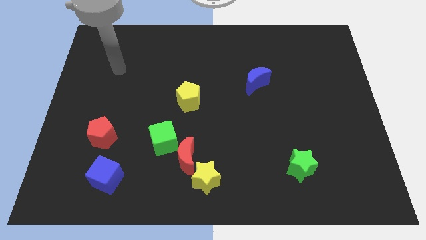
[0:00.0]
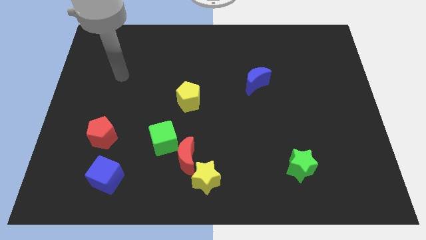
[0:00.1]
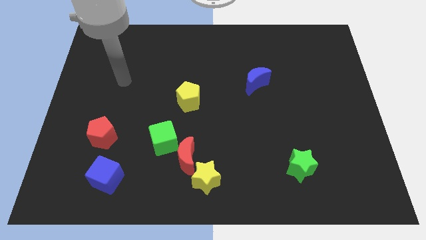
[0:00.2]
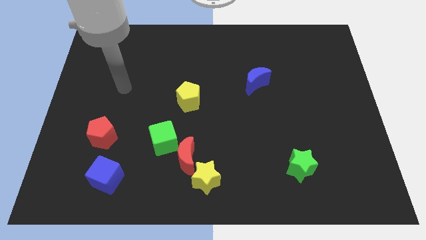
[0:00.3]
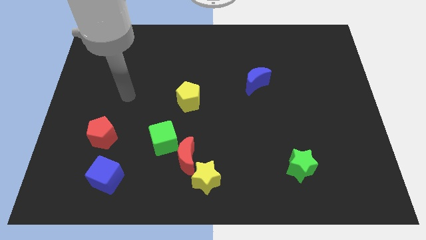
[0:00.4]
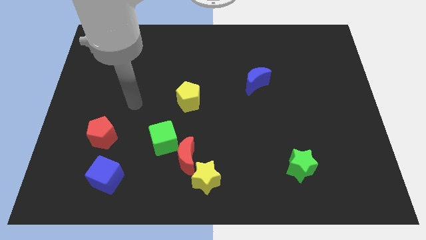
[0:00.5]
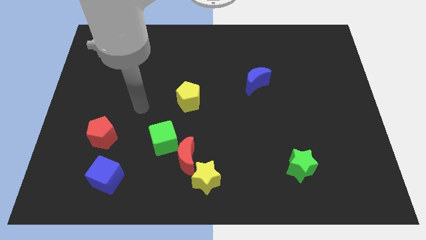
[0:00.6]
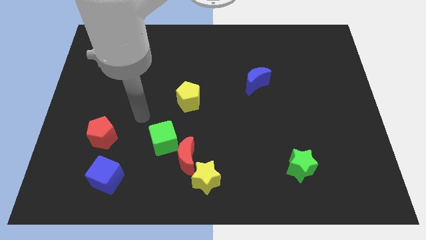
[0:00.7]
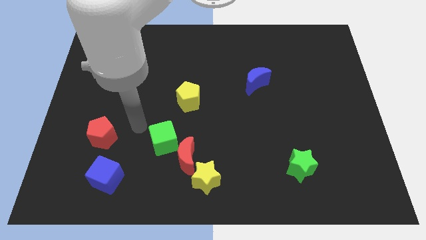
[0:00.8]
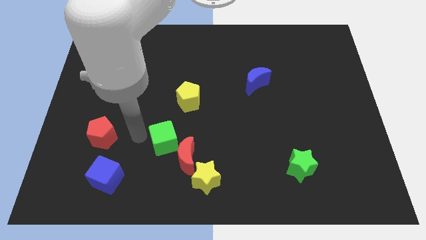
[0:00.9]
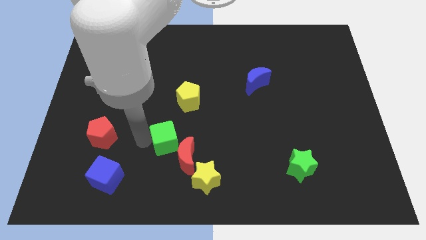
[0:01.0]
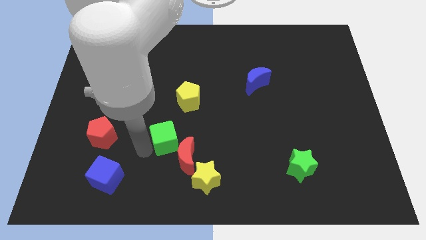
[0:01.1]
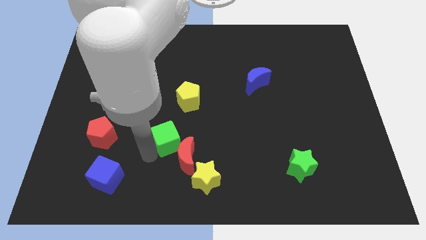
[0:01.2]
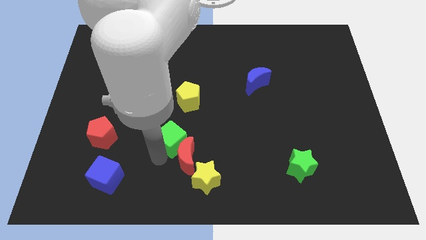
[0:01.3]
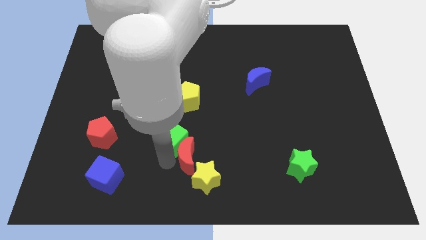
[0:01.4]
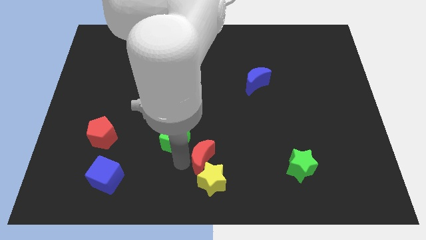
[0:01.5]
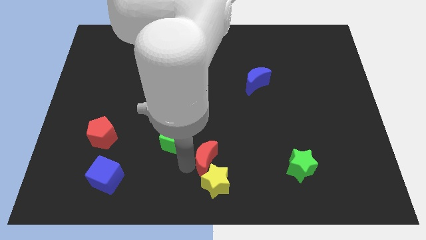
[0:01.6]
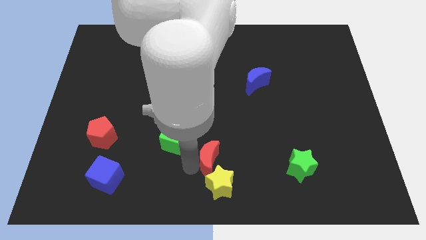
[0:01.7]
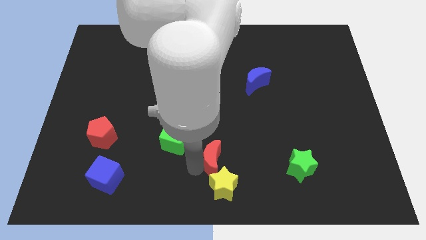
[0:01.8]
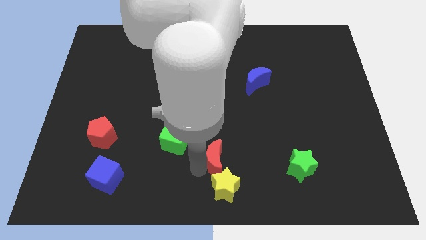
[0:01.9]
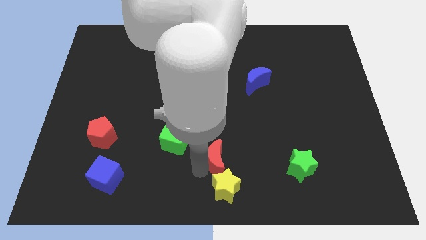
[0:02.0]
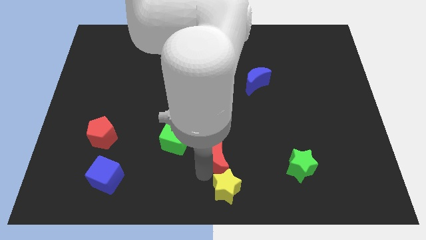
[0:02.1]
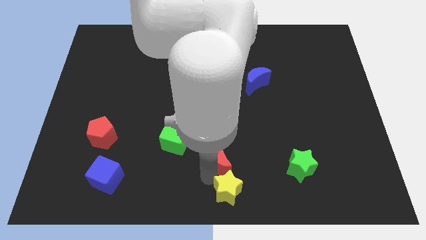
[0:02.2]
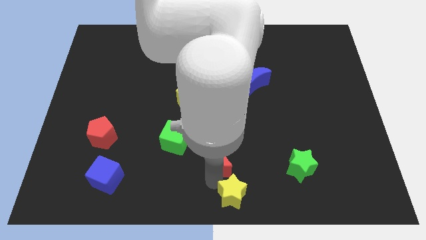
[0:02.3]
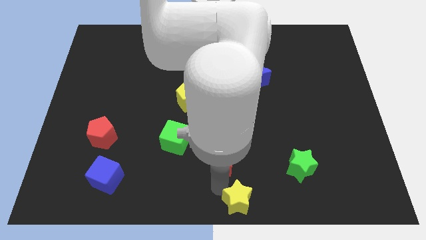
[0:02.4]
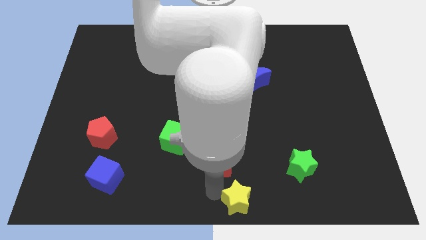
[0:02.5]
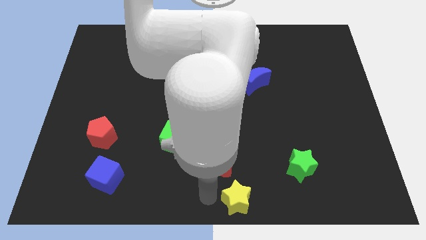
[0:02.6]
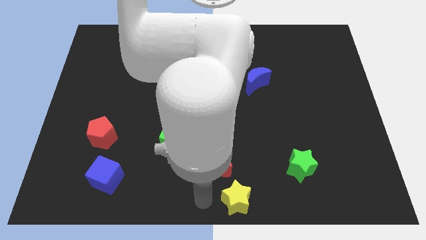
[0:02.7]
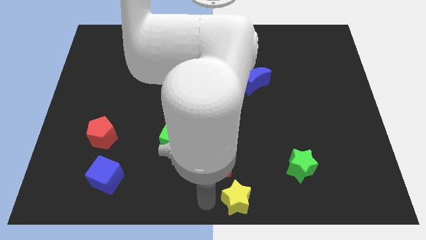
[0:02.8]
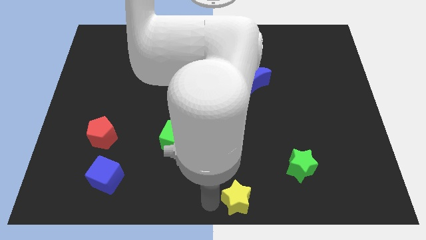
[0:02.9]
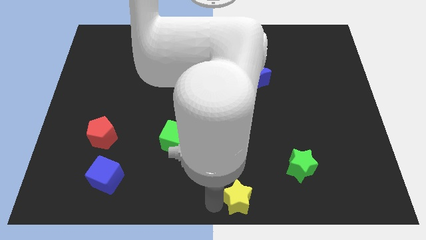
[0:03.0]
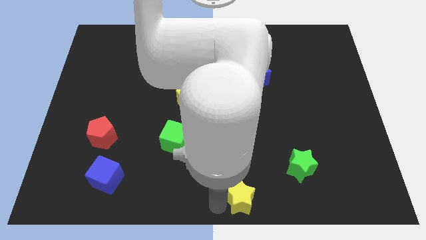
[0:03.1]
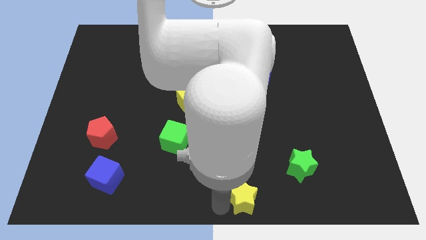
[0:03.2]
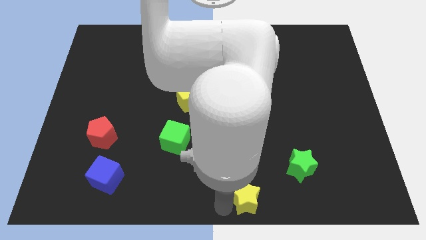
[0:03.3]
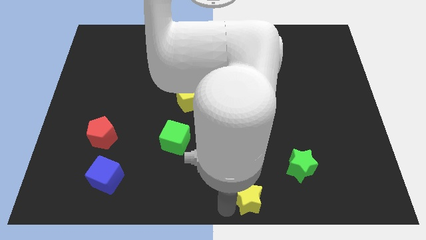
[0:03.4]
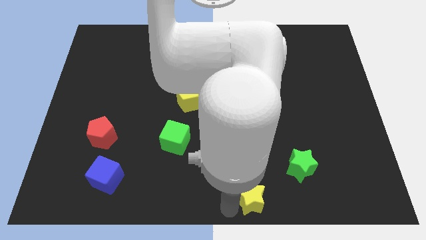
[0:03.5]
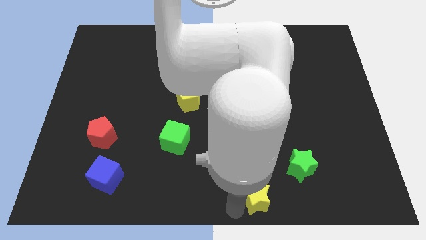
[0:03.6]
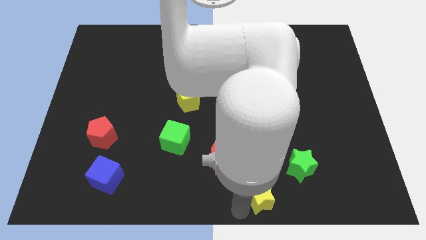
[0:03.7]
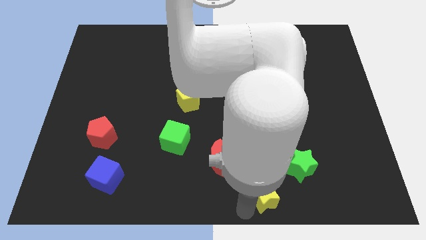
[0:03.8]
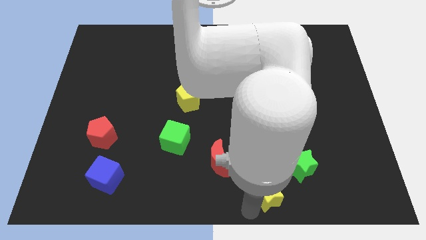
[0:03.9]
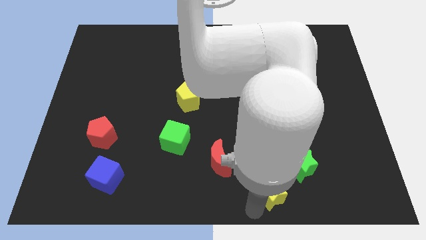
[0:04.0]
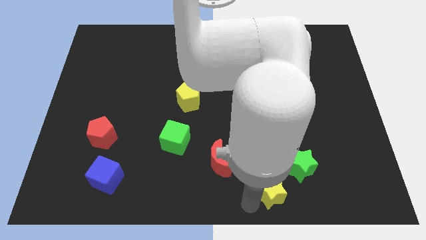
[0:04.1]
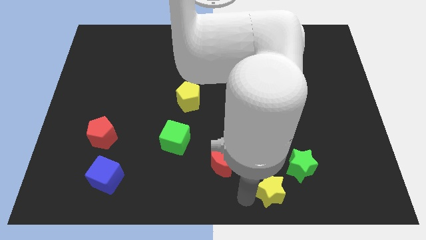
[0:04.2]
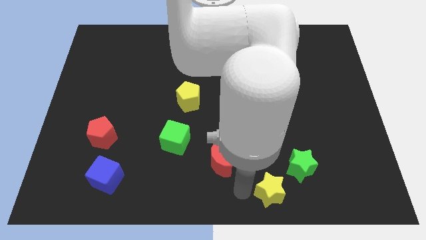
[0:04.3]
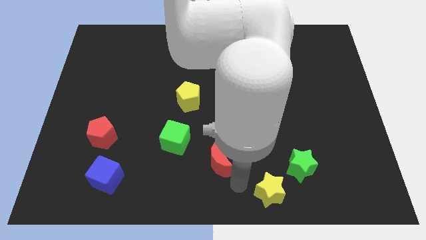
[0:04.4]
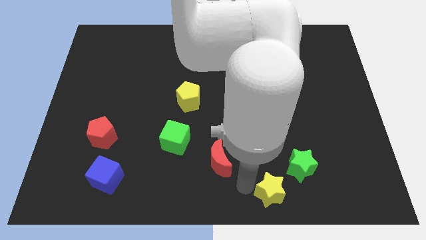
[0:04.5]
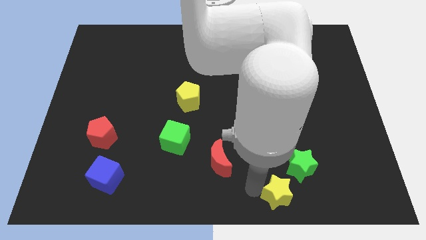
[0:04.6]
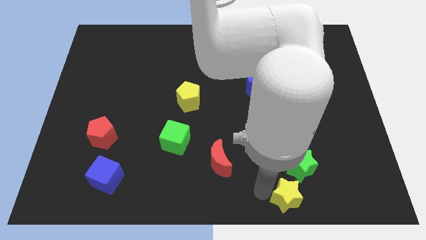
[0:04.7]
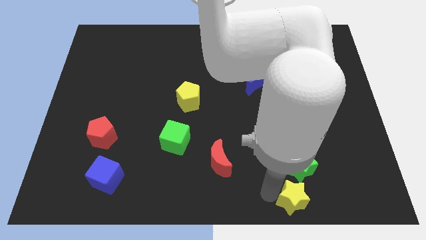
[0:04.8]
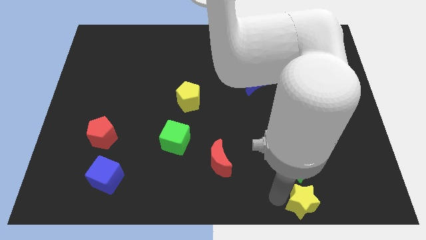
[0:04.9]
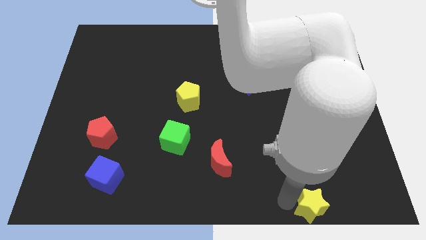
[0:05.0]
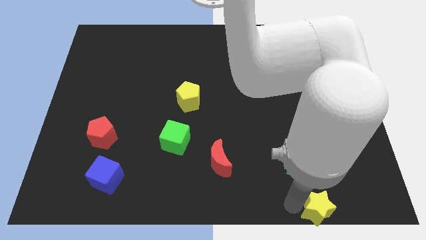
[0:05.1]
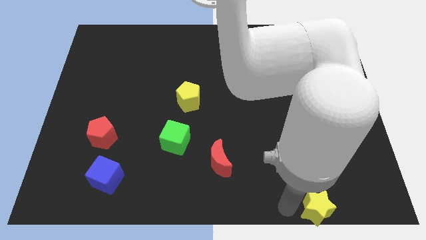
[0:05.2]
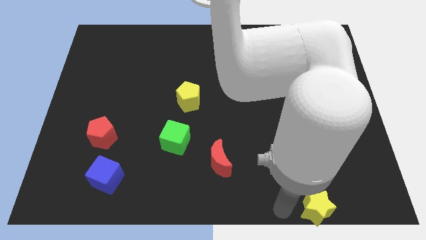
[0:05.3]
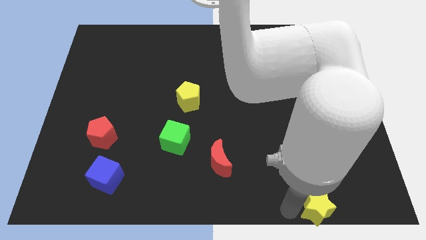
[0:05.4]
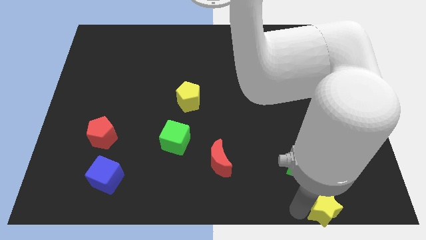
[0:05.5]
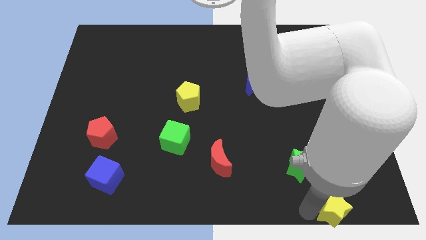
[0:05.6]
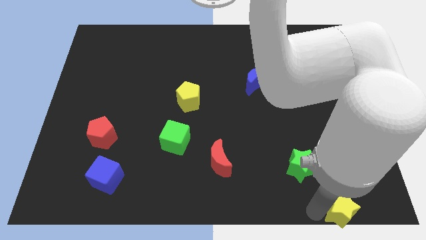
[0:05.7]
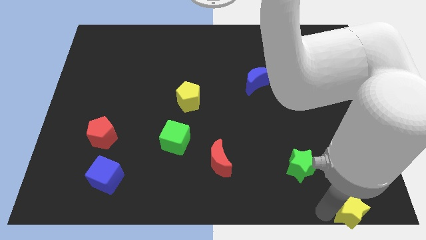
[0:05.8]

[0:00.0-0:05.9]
put the yellow star to the lower right corner

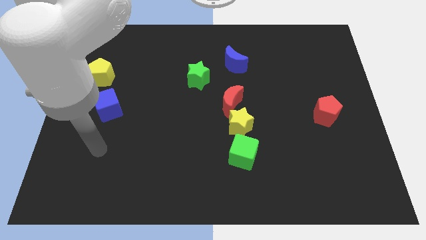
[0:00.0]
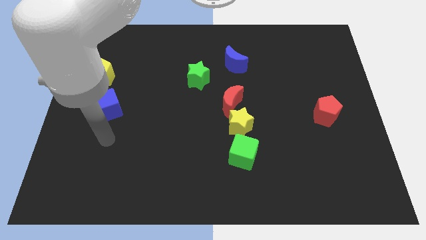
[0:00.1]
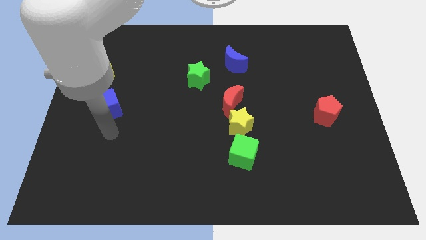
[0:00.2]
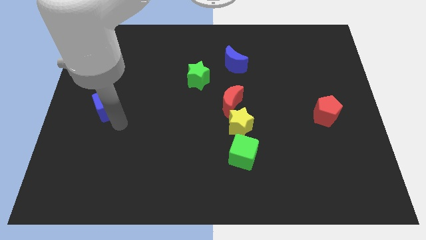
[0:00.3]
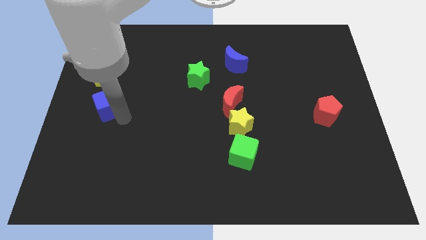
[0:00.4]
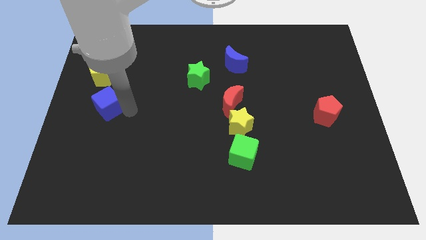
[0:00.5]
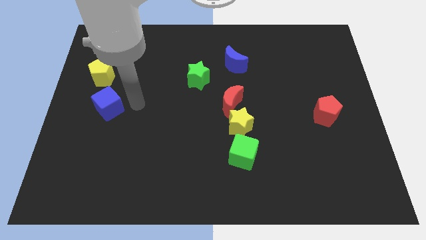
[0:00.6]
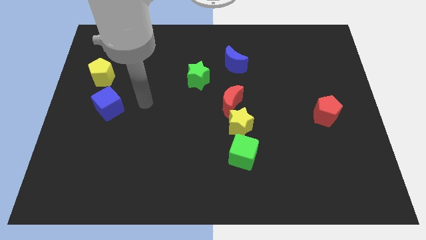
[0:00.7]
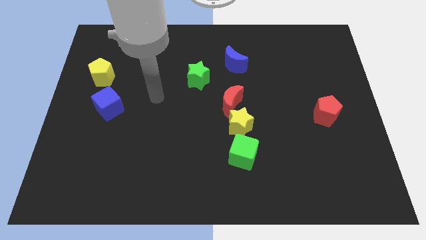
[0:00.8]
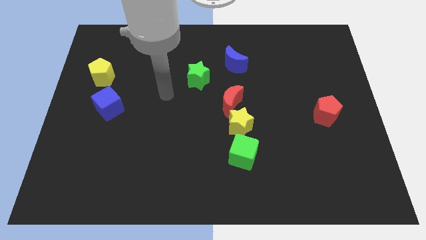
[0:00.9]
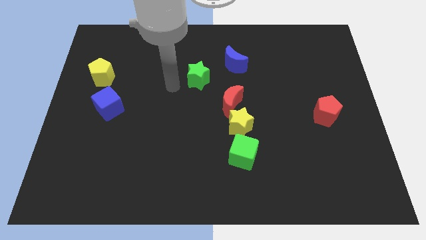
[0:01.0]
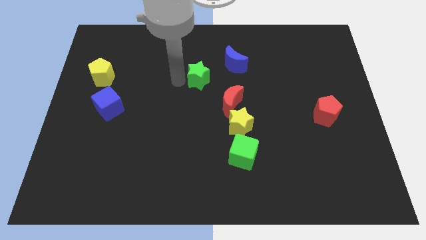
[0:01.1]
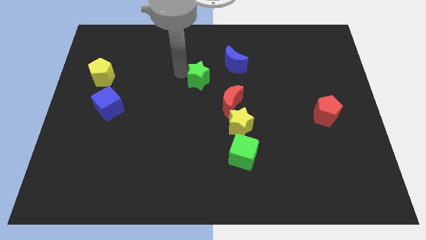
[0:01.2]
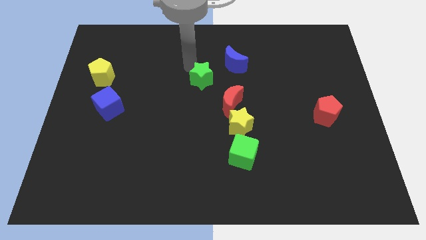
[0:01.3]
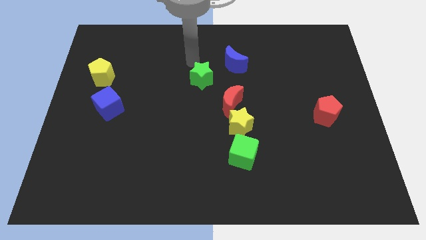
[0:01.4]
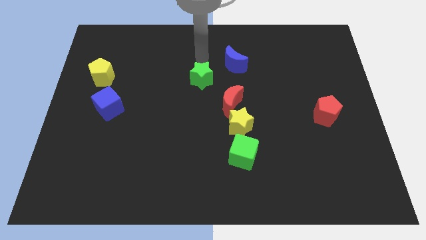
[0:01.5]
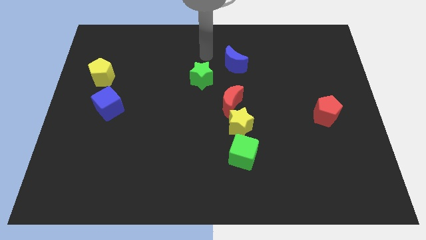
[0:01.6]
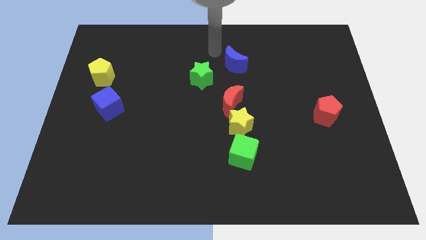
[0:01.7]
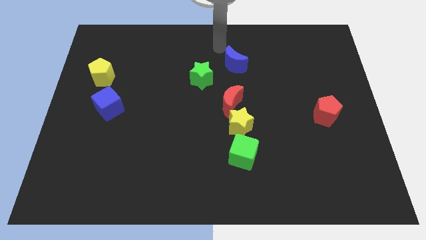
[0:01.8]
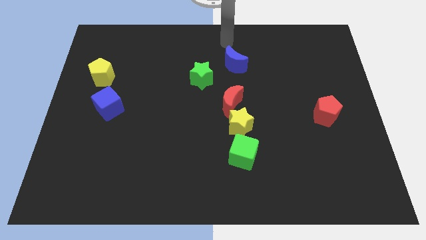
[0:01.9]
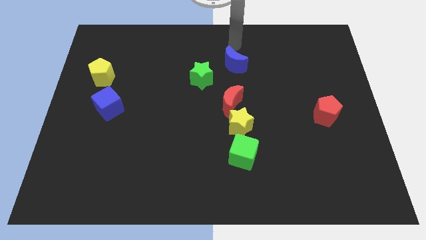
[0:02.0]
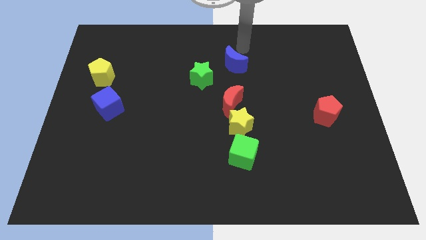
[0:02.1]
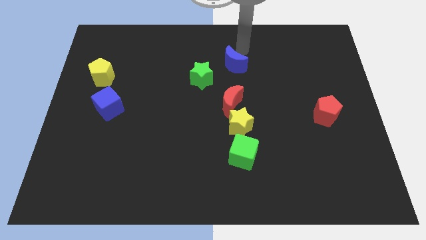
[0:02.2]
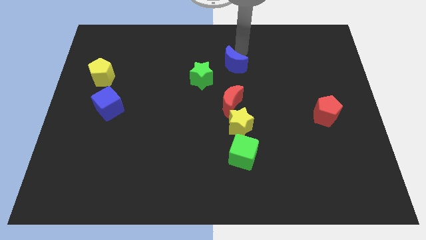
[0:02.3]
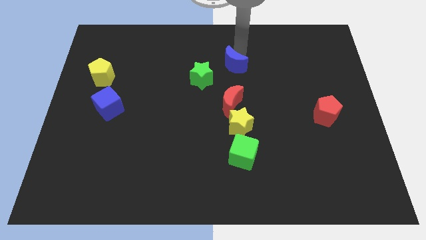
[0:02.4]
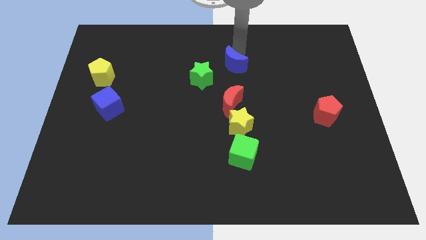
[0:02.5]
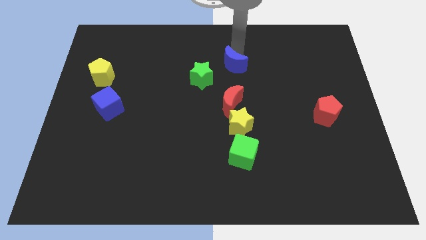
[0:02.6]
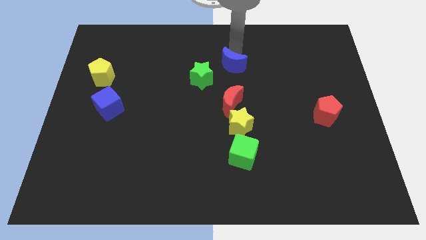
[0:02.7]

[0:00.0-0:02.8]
slide the blue moon to the center
